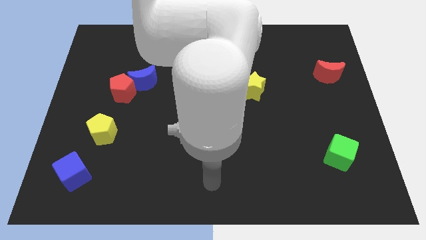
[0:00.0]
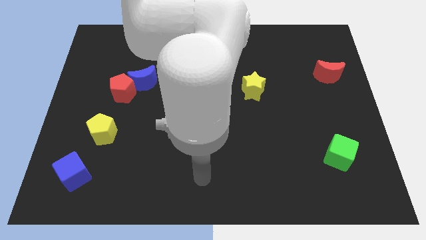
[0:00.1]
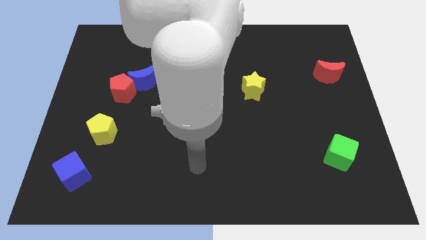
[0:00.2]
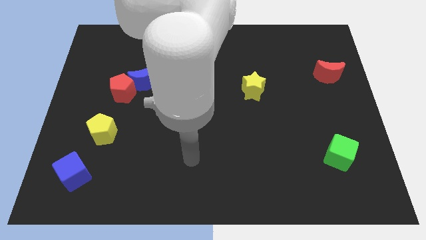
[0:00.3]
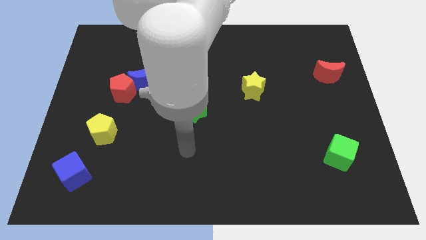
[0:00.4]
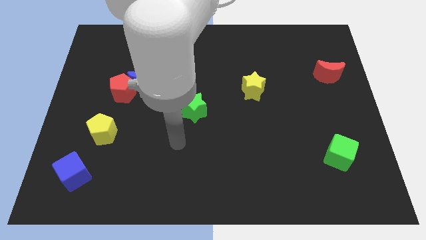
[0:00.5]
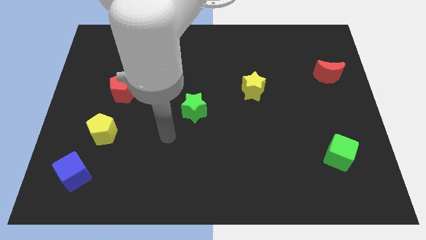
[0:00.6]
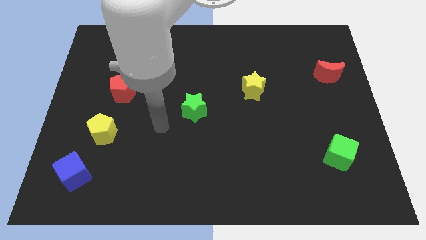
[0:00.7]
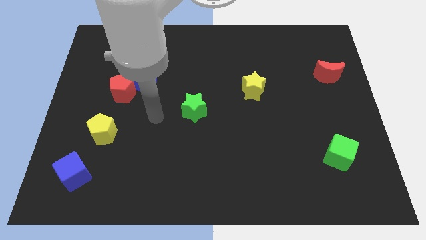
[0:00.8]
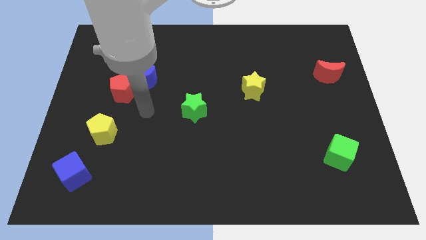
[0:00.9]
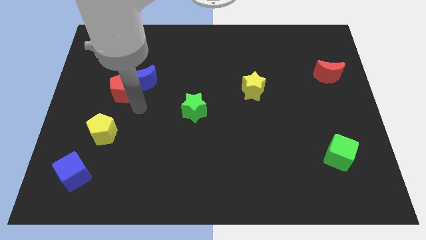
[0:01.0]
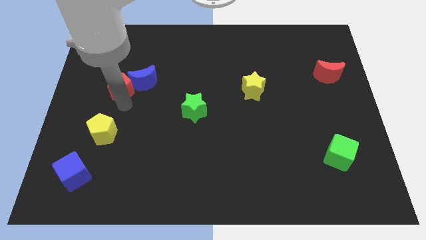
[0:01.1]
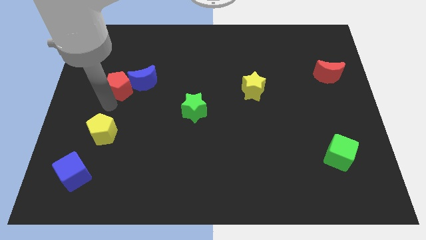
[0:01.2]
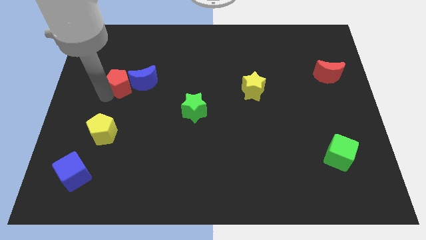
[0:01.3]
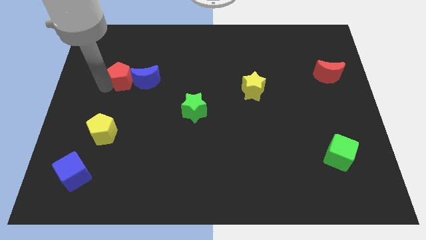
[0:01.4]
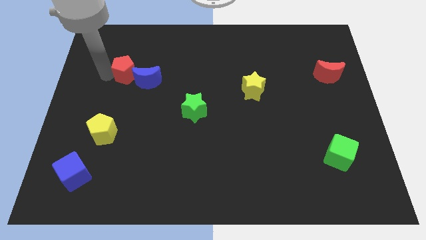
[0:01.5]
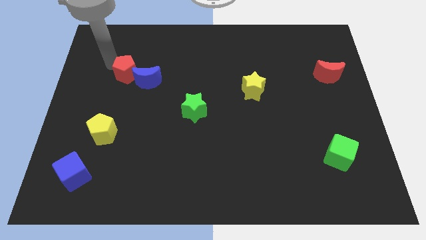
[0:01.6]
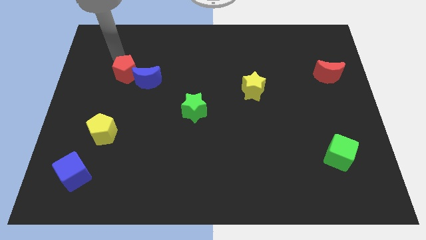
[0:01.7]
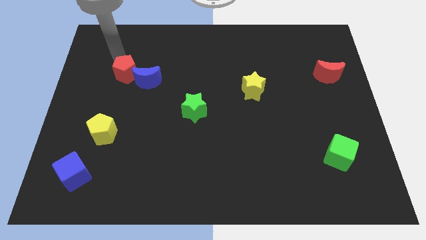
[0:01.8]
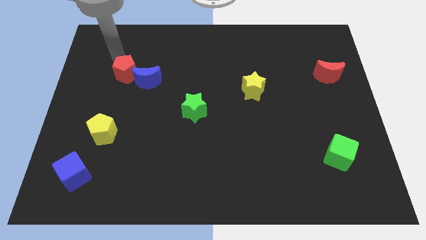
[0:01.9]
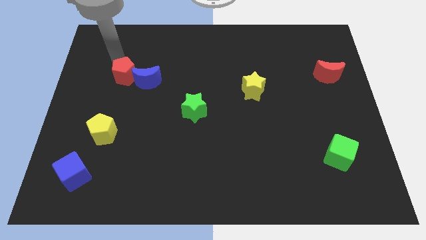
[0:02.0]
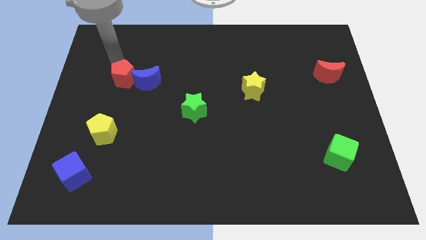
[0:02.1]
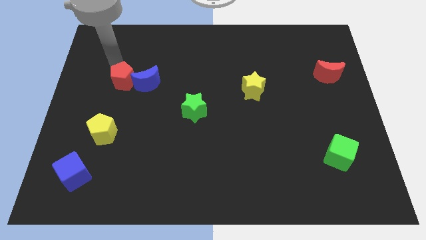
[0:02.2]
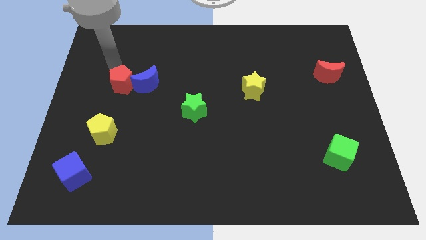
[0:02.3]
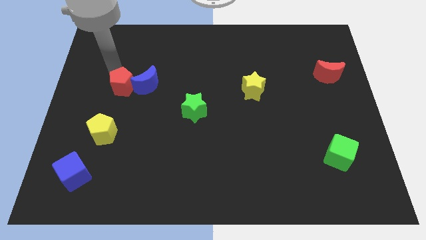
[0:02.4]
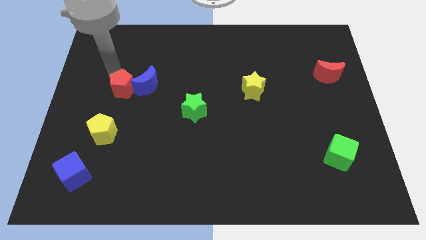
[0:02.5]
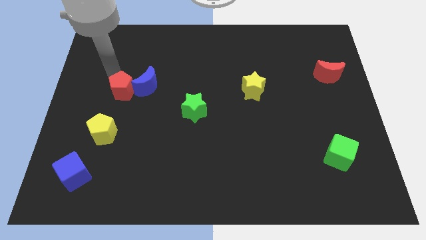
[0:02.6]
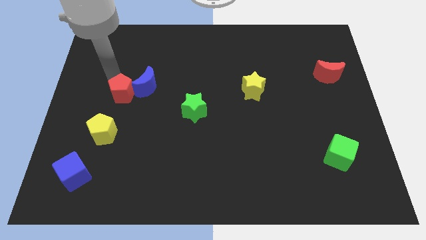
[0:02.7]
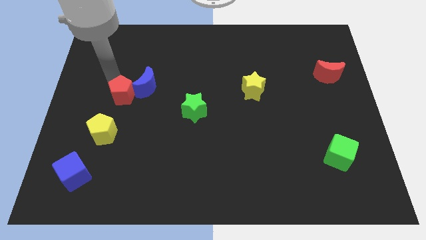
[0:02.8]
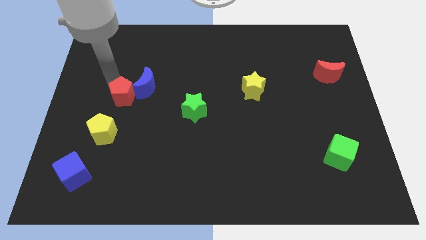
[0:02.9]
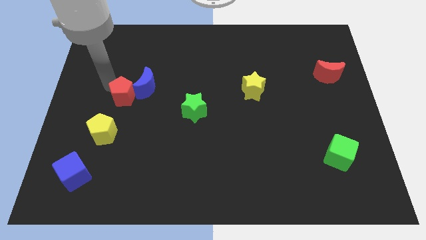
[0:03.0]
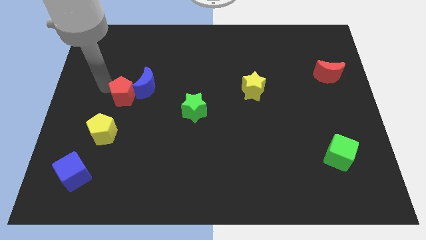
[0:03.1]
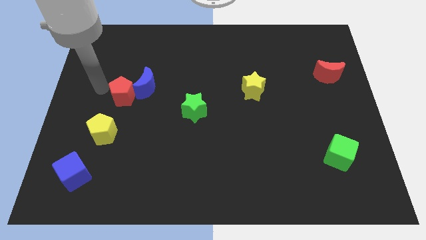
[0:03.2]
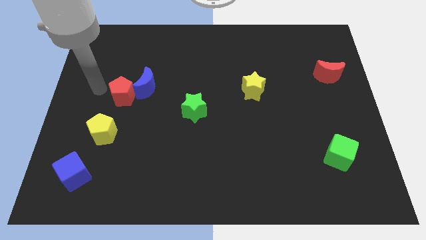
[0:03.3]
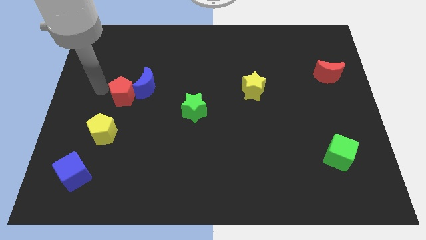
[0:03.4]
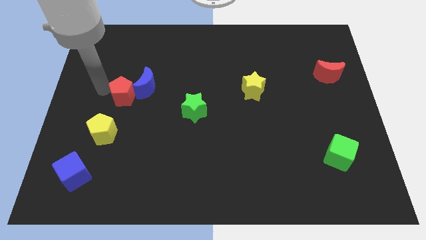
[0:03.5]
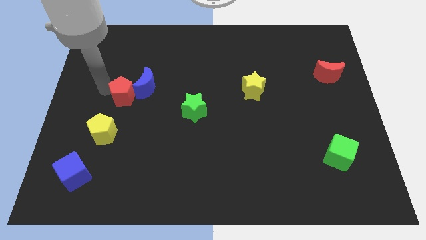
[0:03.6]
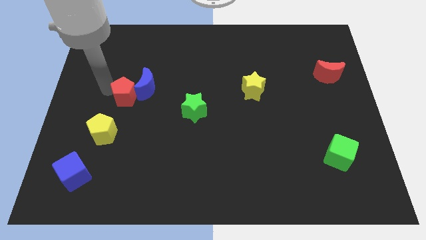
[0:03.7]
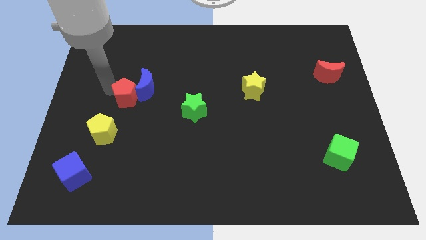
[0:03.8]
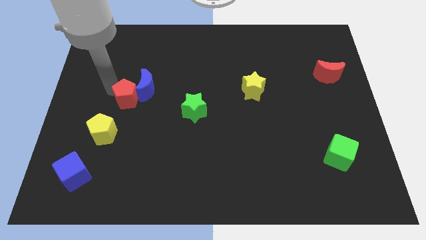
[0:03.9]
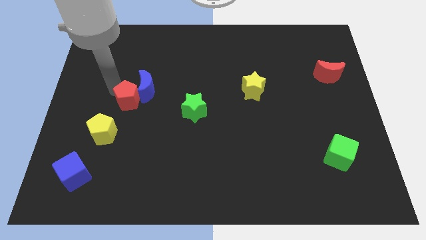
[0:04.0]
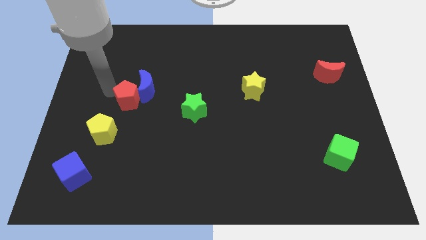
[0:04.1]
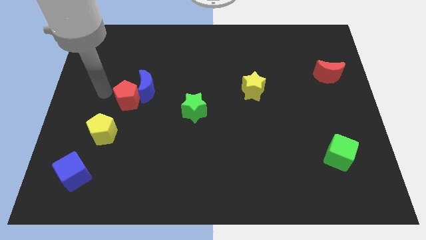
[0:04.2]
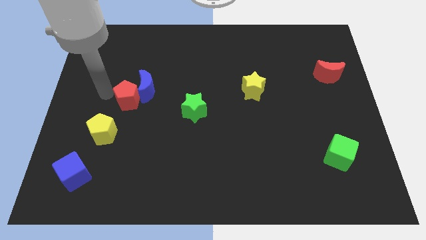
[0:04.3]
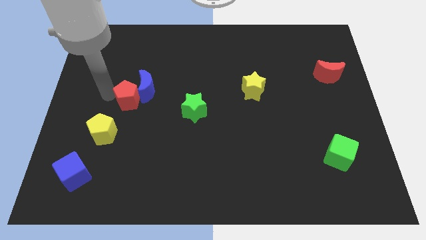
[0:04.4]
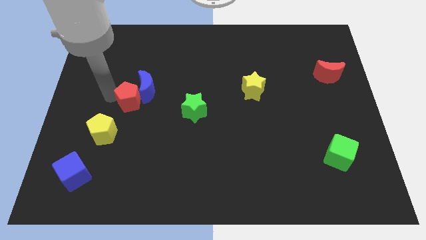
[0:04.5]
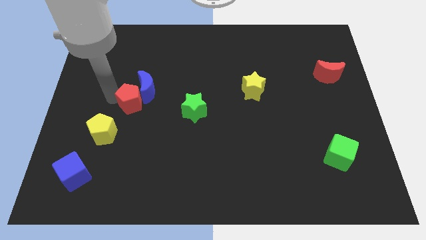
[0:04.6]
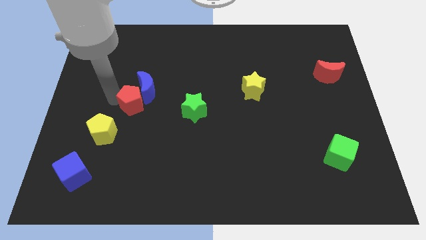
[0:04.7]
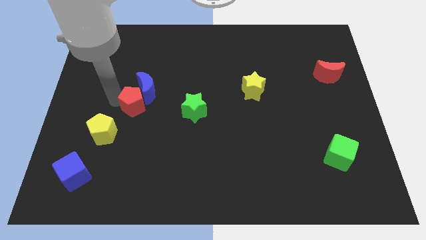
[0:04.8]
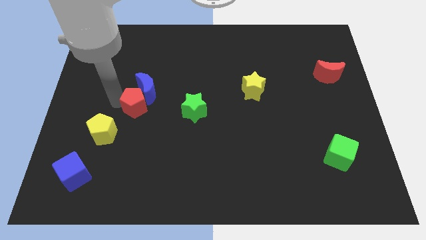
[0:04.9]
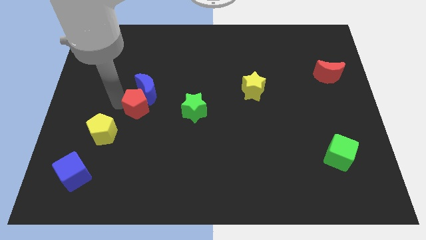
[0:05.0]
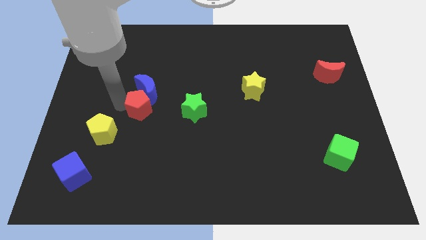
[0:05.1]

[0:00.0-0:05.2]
slightly push the red pentagon downwards and then to the right

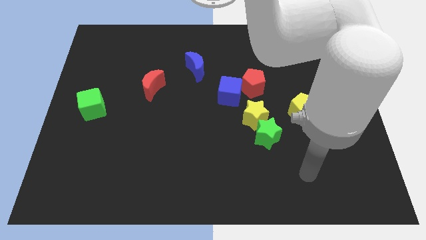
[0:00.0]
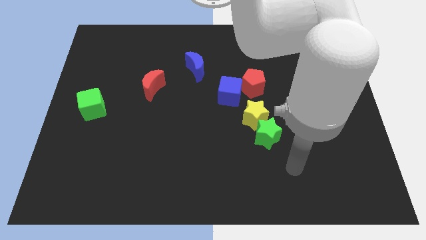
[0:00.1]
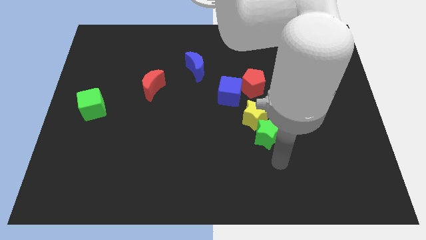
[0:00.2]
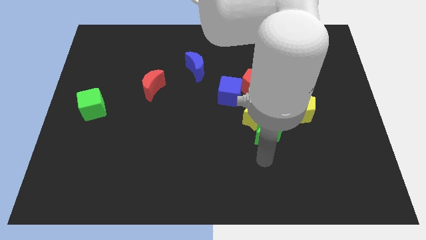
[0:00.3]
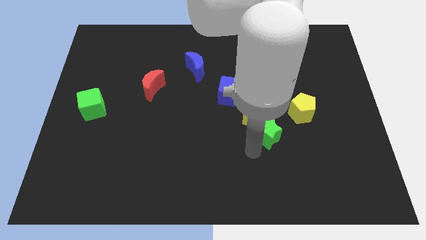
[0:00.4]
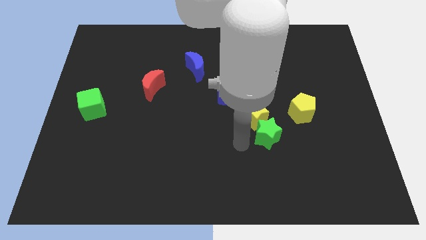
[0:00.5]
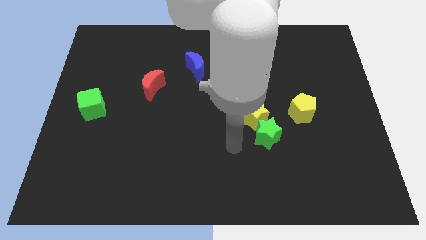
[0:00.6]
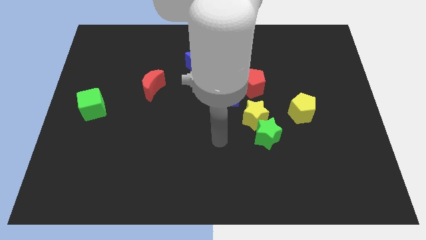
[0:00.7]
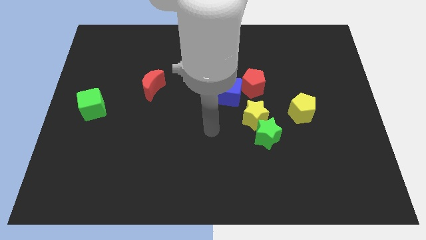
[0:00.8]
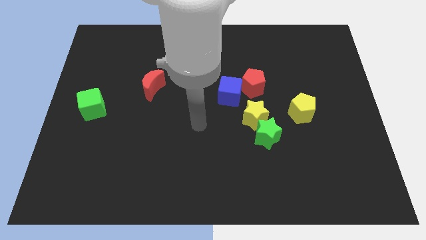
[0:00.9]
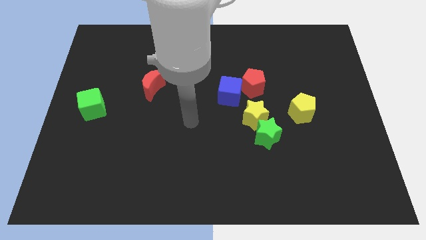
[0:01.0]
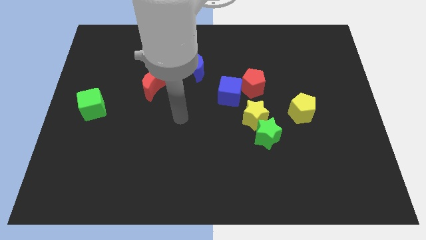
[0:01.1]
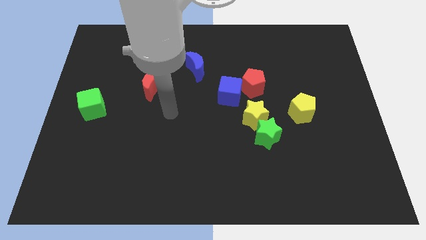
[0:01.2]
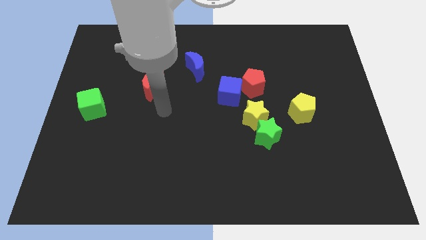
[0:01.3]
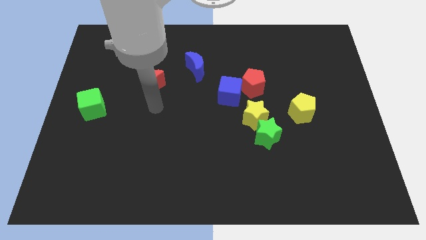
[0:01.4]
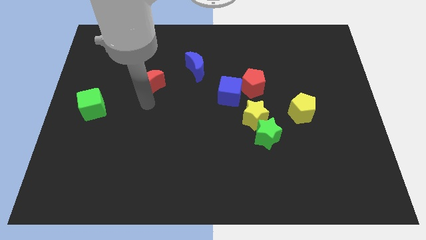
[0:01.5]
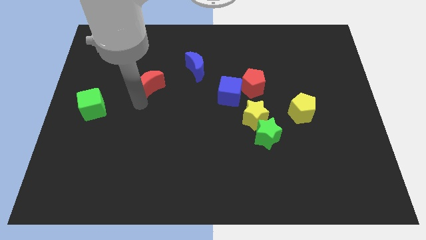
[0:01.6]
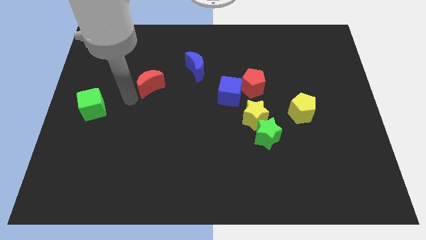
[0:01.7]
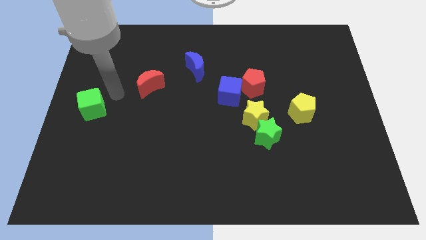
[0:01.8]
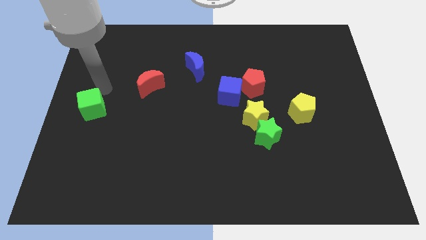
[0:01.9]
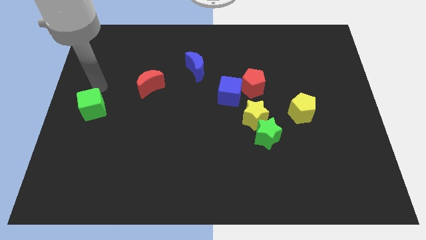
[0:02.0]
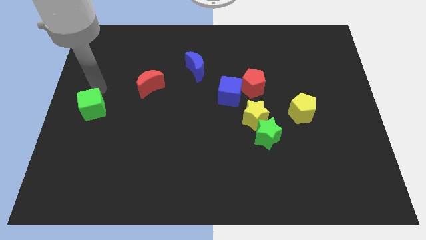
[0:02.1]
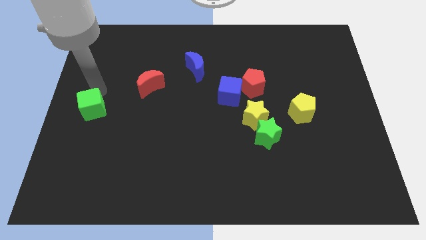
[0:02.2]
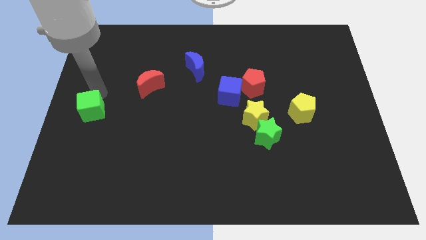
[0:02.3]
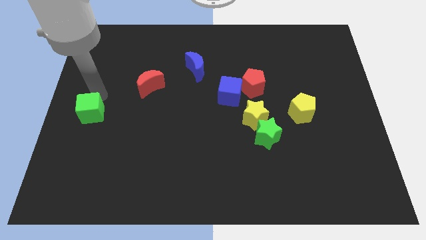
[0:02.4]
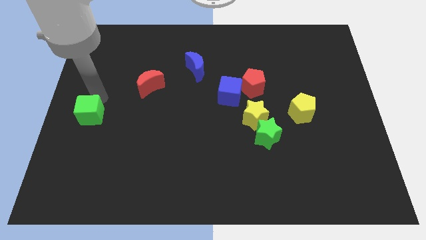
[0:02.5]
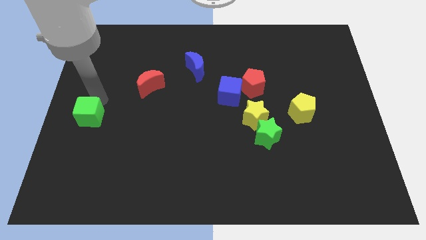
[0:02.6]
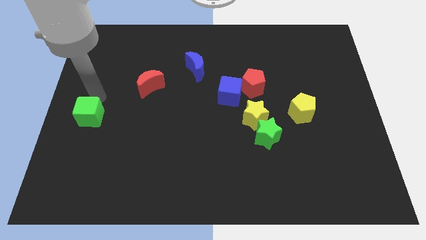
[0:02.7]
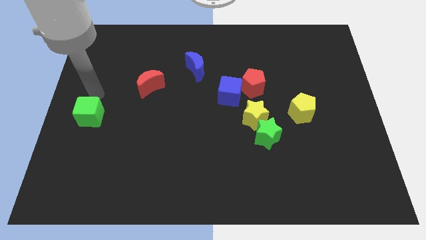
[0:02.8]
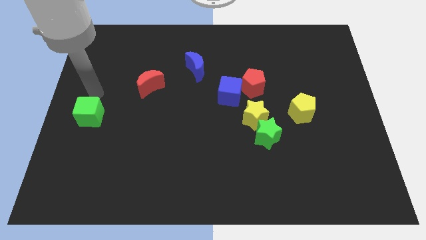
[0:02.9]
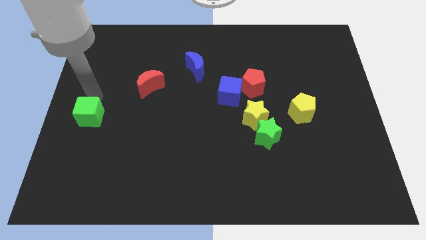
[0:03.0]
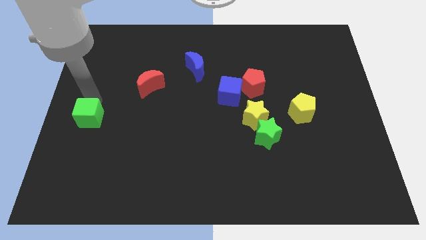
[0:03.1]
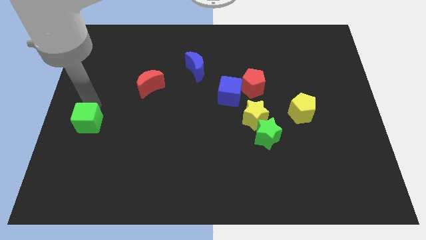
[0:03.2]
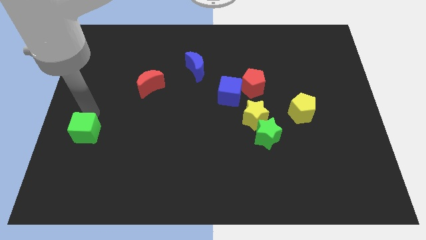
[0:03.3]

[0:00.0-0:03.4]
move the green cube slightly down
